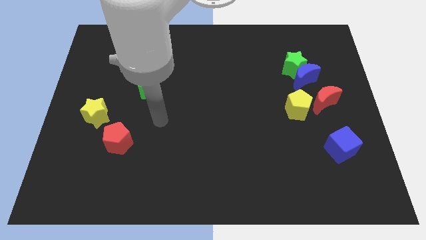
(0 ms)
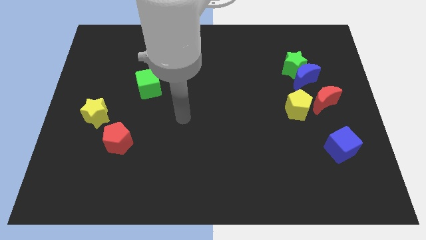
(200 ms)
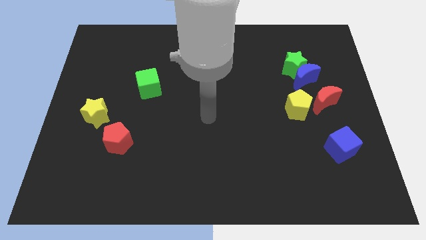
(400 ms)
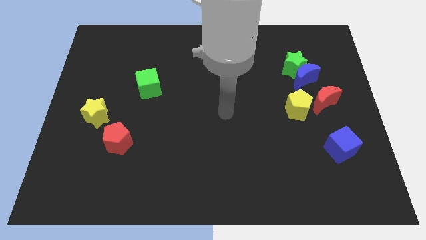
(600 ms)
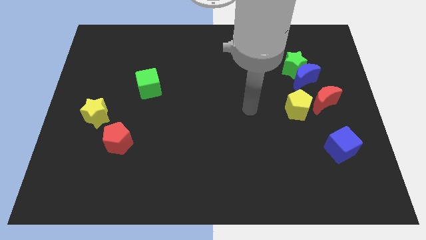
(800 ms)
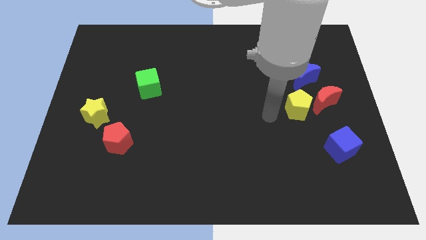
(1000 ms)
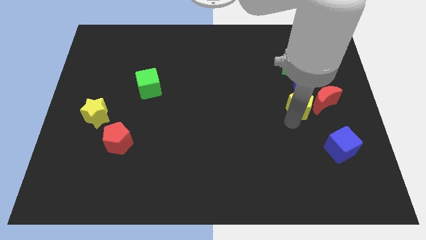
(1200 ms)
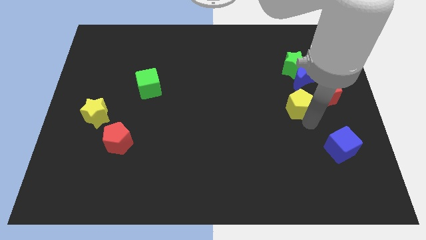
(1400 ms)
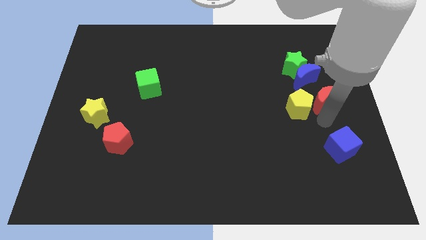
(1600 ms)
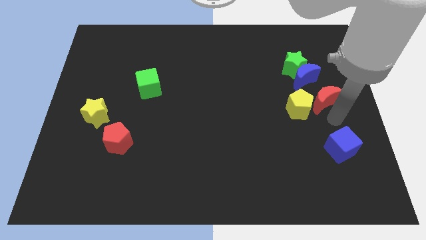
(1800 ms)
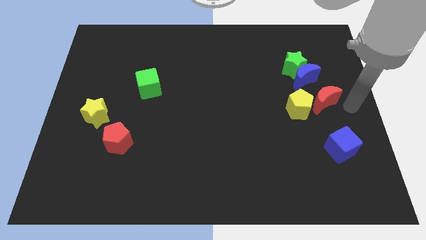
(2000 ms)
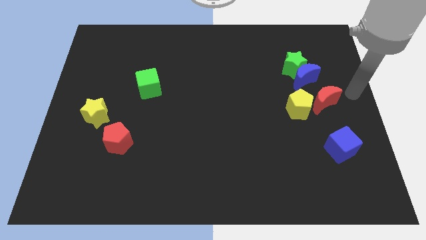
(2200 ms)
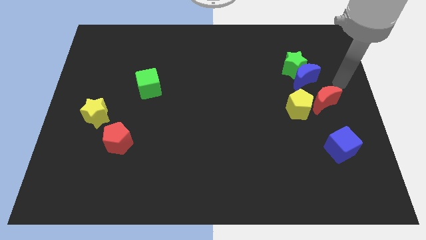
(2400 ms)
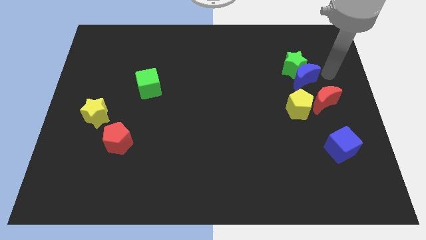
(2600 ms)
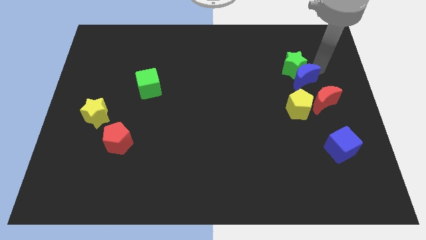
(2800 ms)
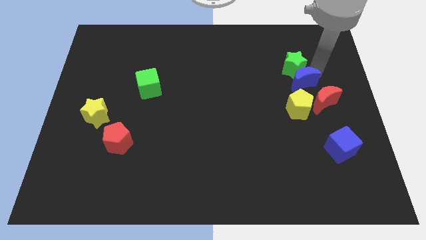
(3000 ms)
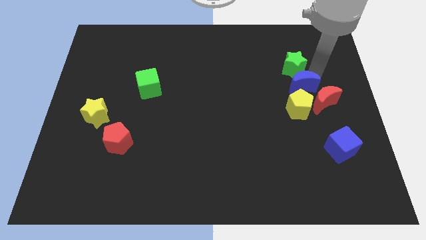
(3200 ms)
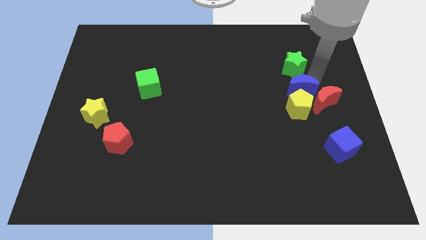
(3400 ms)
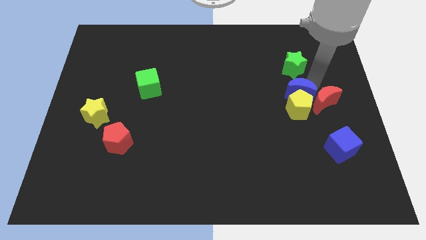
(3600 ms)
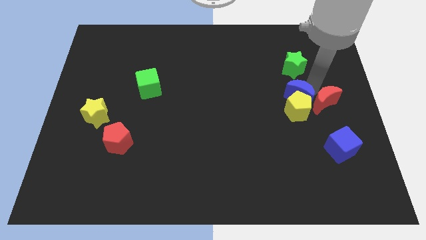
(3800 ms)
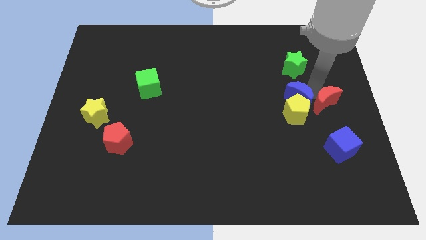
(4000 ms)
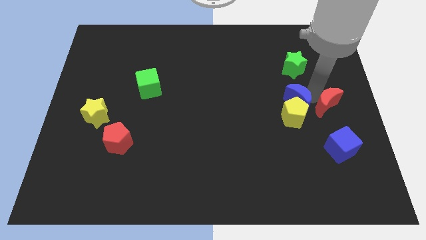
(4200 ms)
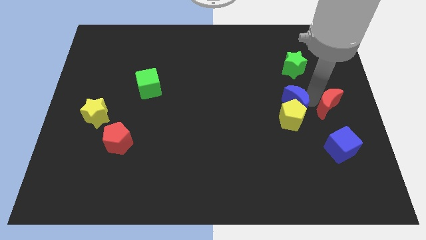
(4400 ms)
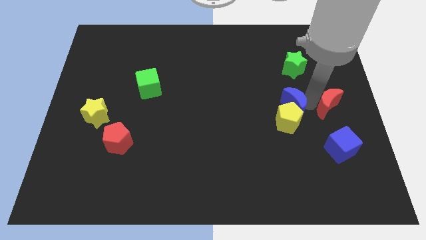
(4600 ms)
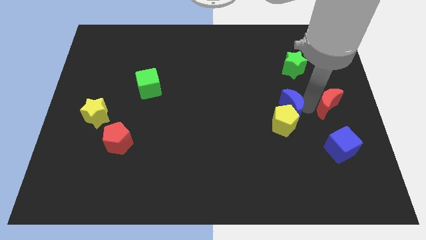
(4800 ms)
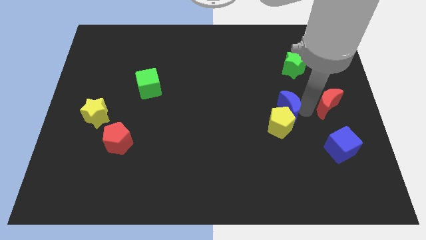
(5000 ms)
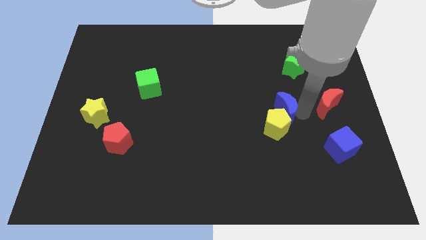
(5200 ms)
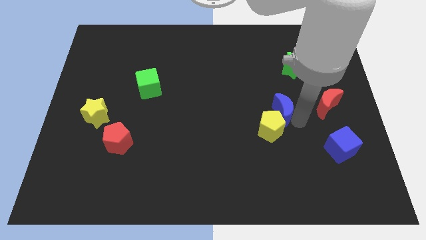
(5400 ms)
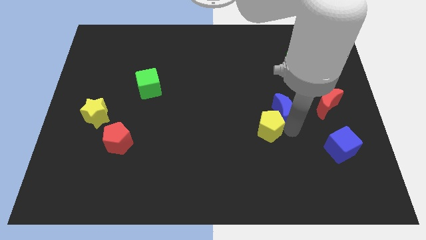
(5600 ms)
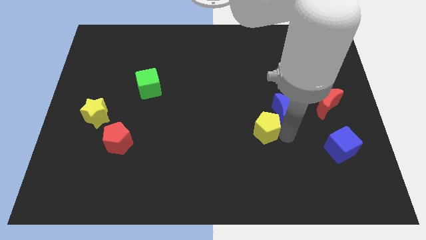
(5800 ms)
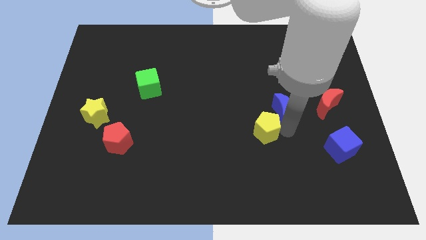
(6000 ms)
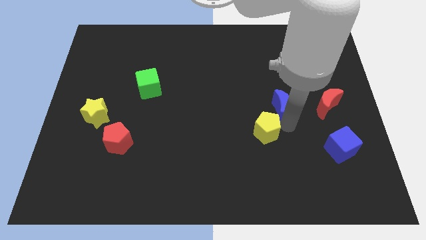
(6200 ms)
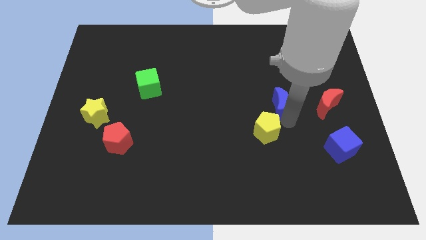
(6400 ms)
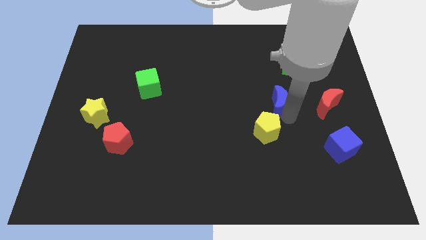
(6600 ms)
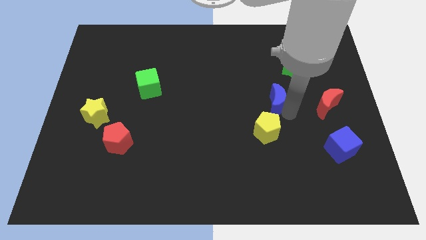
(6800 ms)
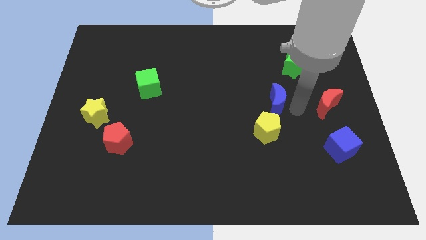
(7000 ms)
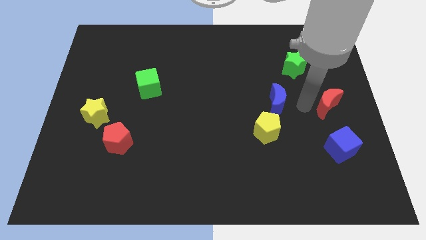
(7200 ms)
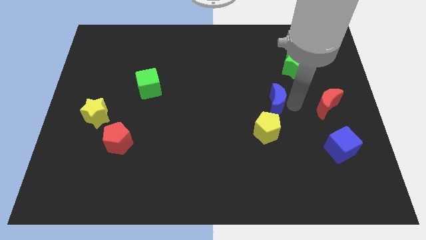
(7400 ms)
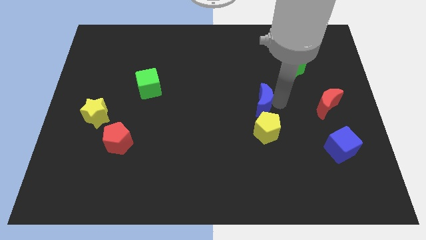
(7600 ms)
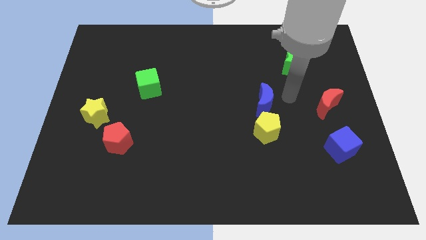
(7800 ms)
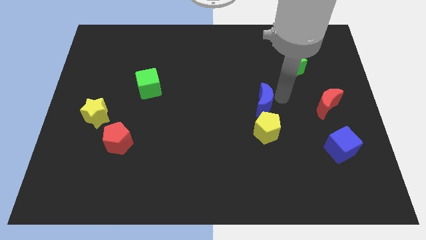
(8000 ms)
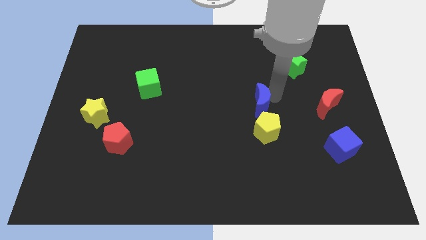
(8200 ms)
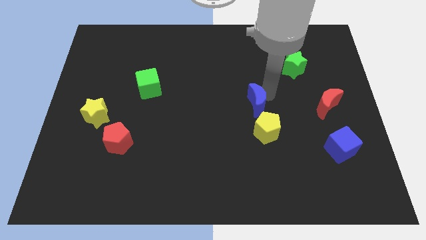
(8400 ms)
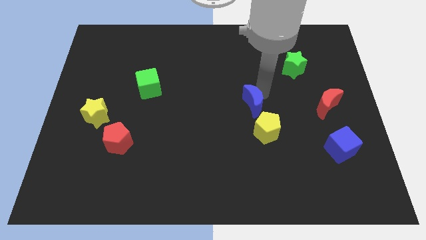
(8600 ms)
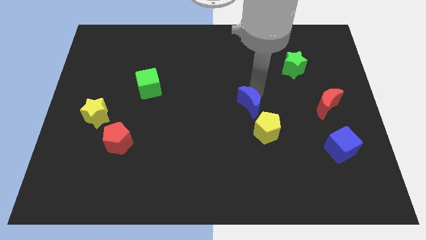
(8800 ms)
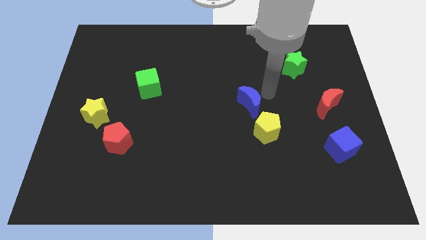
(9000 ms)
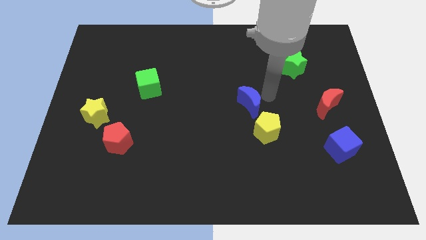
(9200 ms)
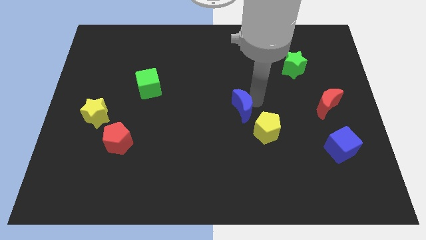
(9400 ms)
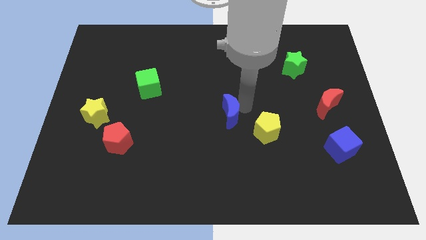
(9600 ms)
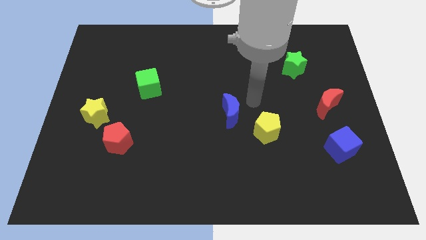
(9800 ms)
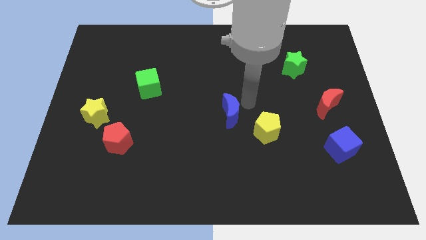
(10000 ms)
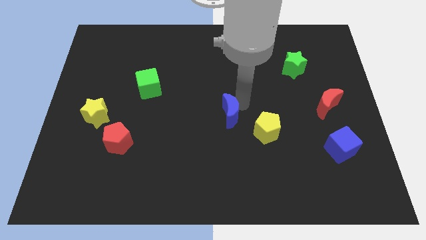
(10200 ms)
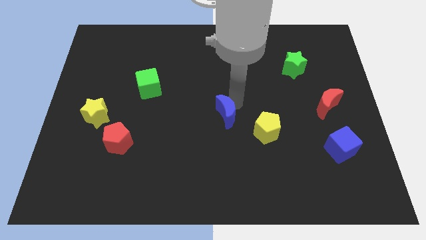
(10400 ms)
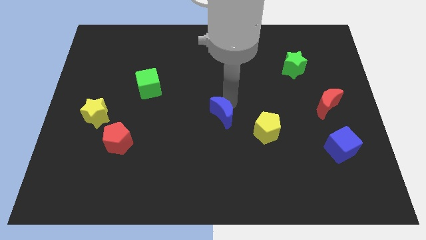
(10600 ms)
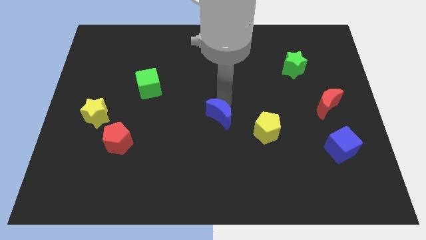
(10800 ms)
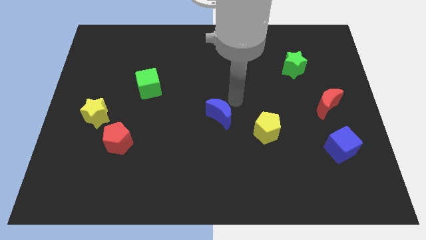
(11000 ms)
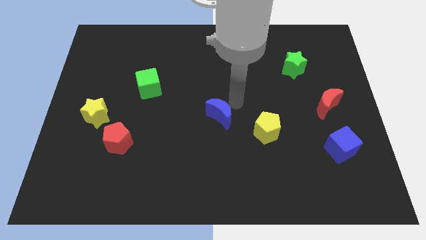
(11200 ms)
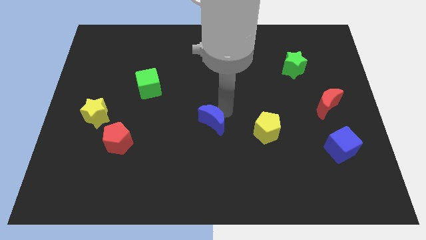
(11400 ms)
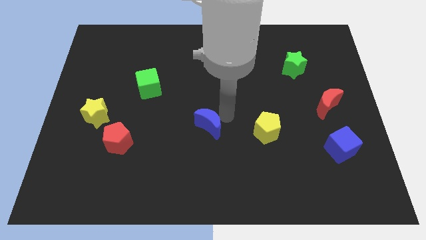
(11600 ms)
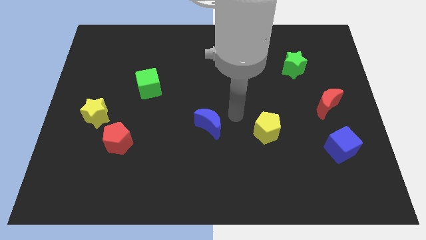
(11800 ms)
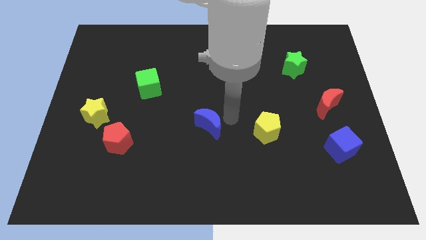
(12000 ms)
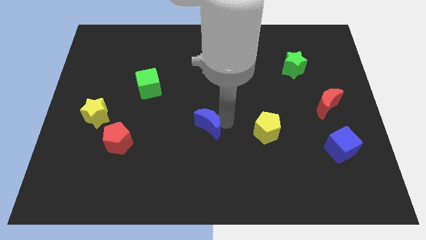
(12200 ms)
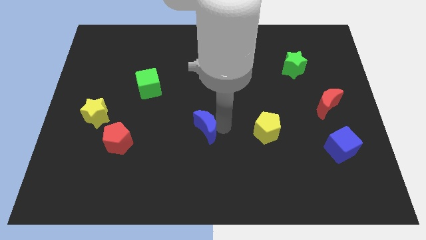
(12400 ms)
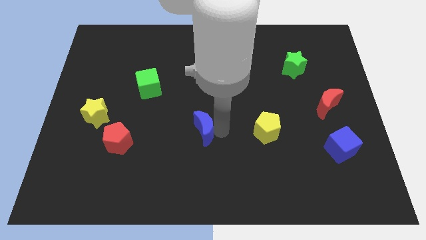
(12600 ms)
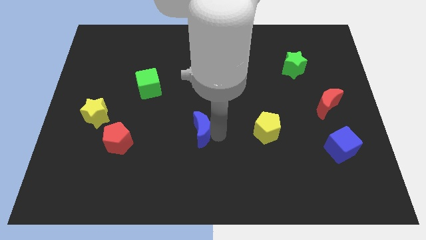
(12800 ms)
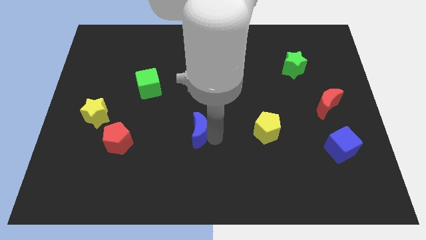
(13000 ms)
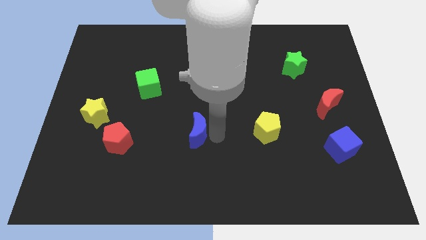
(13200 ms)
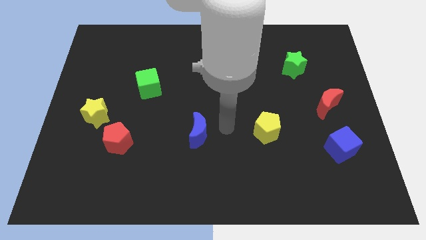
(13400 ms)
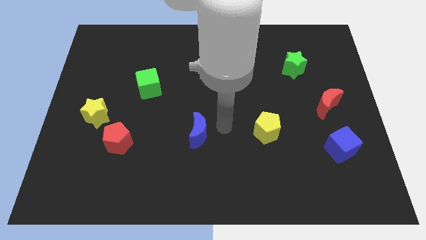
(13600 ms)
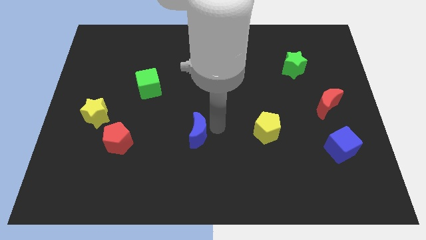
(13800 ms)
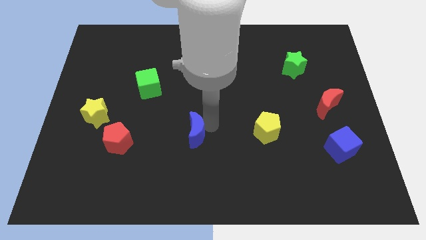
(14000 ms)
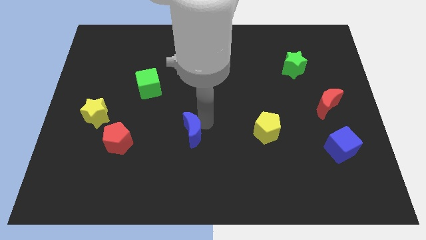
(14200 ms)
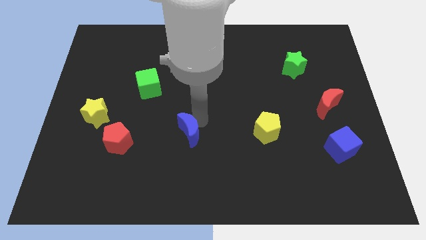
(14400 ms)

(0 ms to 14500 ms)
push the blue moon to the right side of the red pentagon
